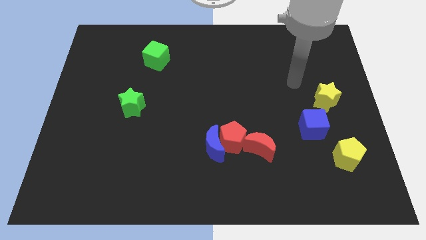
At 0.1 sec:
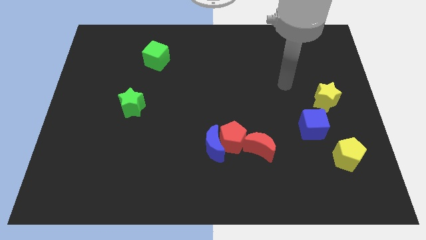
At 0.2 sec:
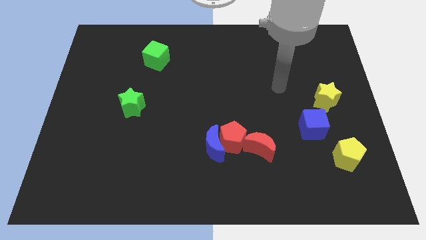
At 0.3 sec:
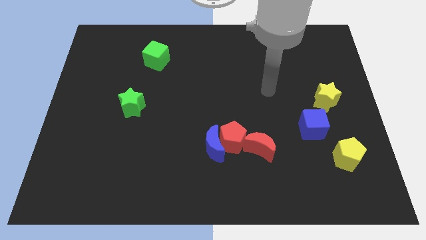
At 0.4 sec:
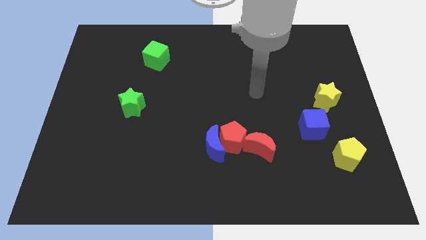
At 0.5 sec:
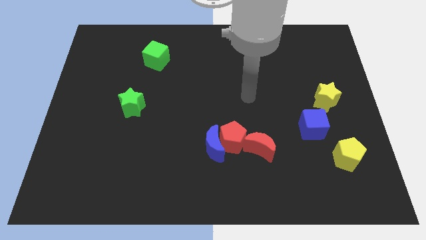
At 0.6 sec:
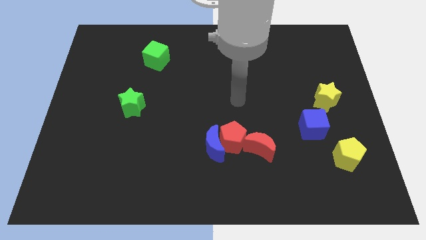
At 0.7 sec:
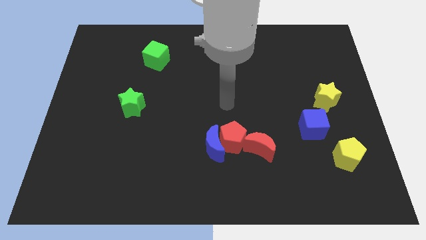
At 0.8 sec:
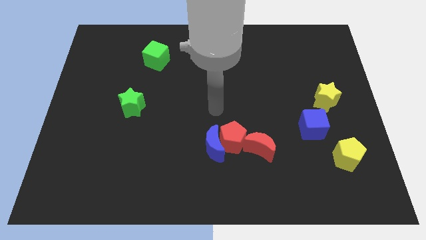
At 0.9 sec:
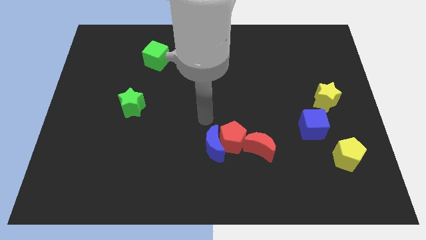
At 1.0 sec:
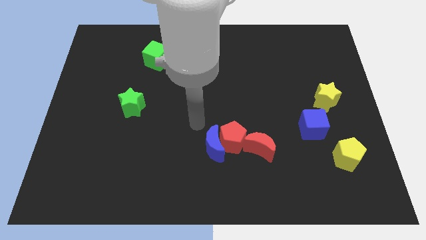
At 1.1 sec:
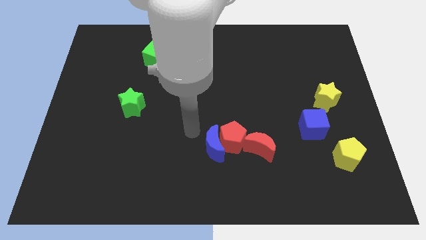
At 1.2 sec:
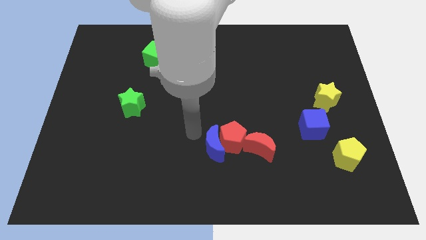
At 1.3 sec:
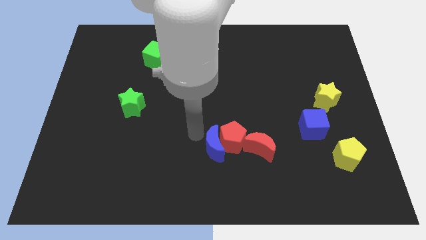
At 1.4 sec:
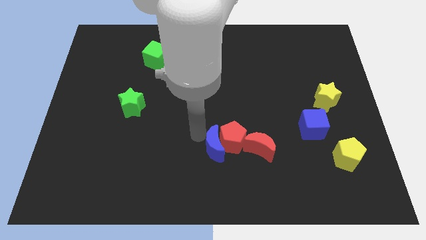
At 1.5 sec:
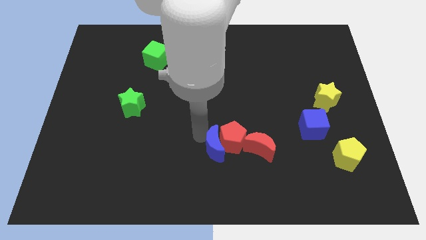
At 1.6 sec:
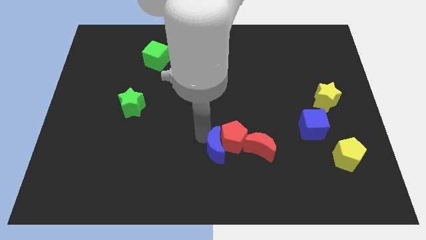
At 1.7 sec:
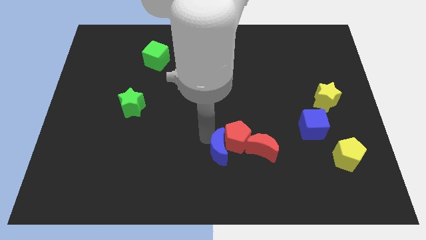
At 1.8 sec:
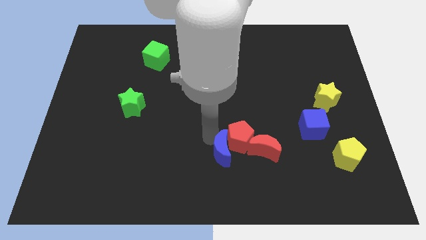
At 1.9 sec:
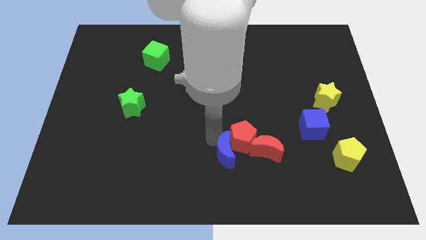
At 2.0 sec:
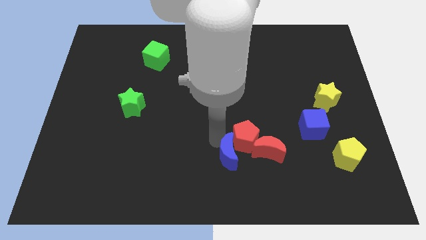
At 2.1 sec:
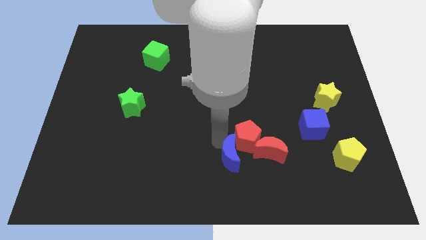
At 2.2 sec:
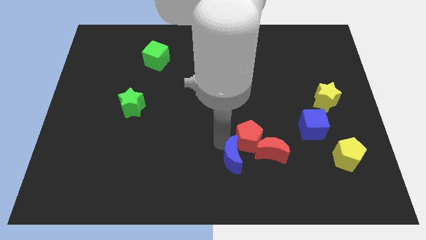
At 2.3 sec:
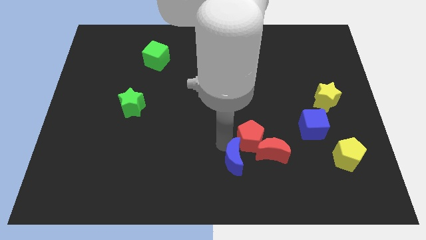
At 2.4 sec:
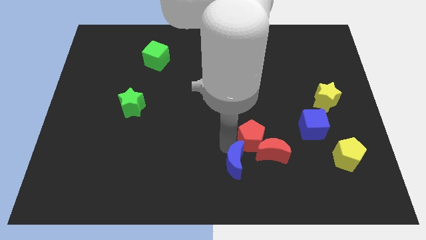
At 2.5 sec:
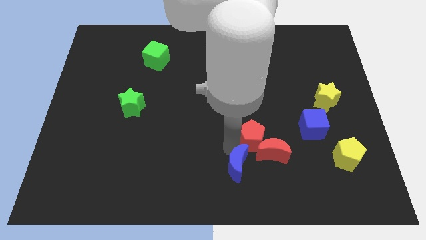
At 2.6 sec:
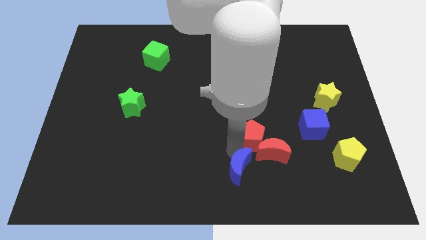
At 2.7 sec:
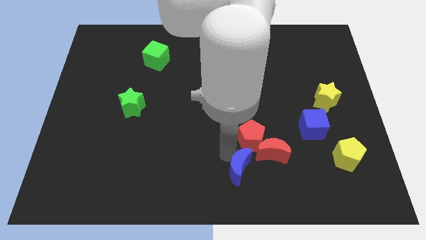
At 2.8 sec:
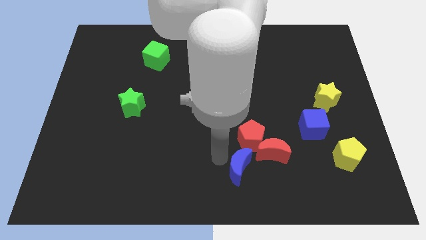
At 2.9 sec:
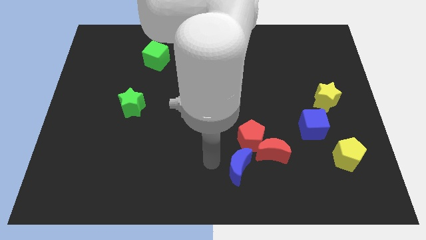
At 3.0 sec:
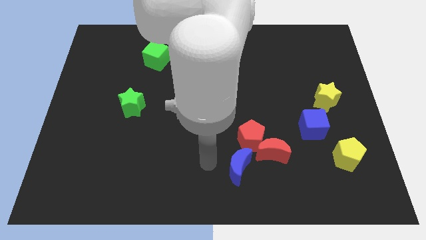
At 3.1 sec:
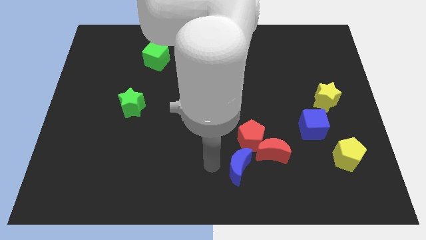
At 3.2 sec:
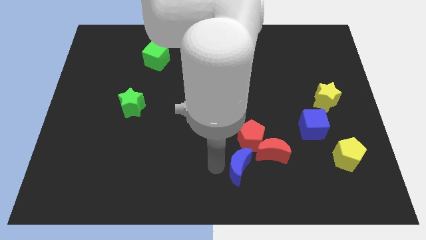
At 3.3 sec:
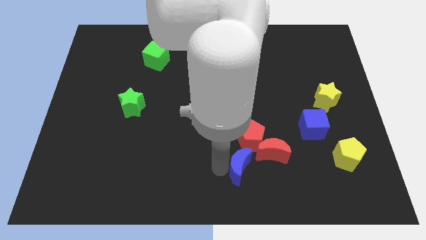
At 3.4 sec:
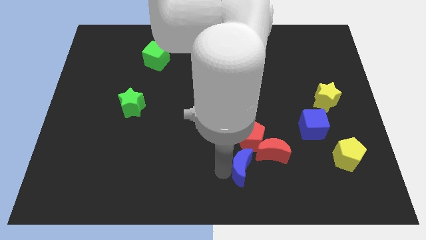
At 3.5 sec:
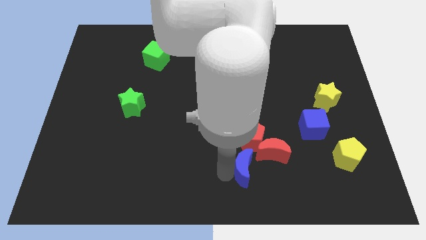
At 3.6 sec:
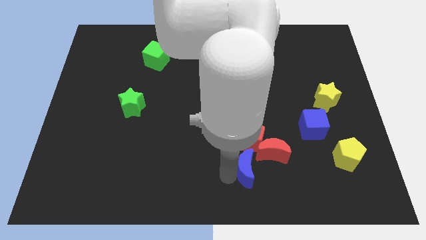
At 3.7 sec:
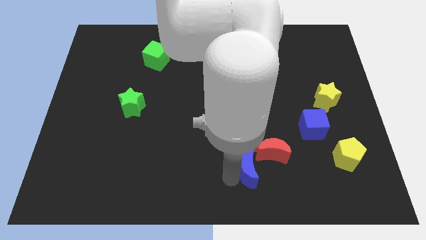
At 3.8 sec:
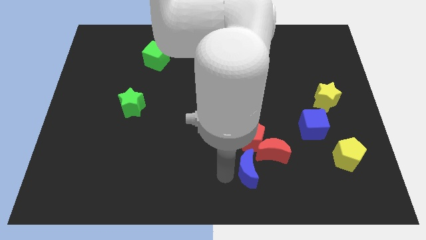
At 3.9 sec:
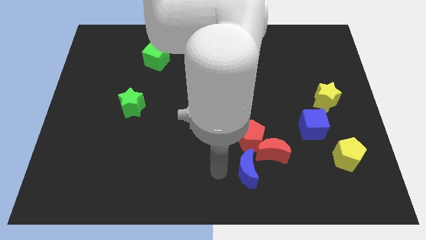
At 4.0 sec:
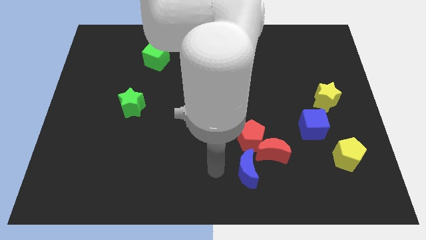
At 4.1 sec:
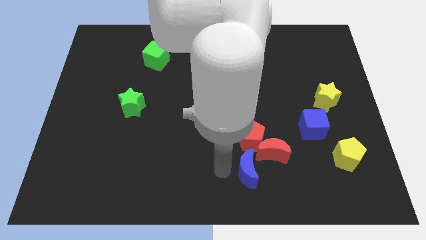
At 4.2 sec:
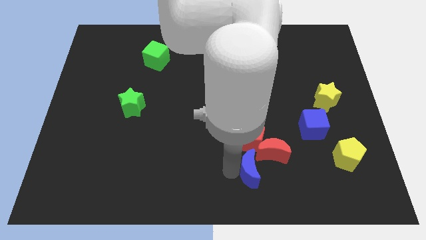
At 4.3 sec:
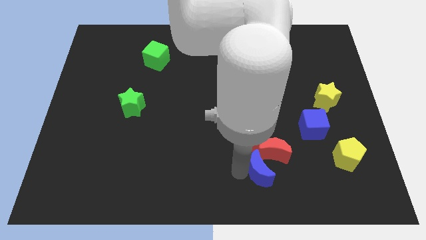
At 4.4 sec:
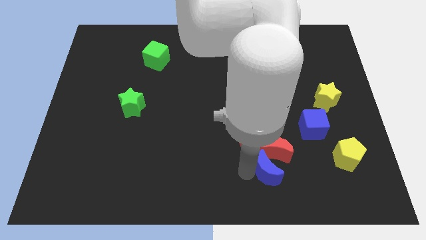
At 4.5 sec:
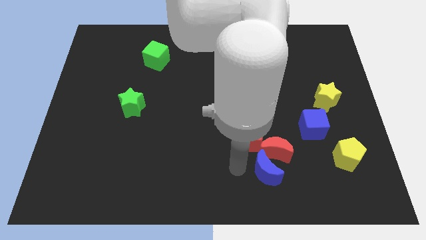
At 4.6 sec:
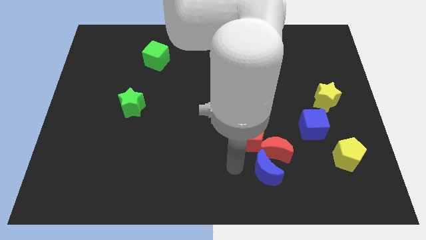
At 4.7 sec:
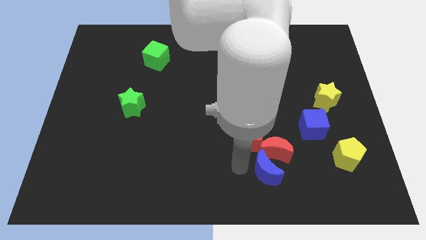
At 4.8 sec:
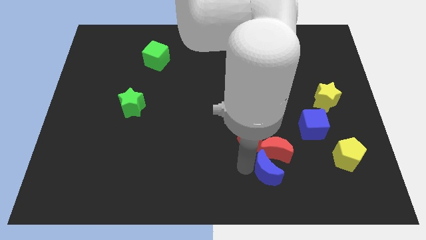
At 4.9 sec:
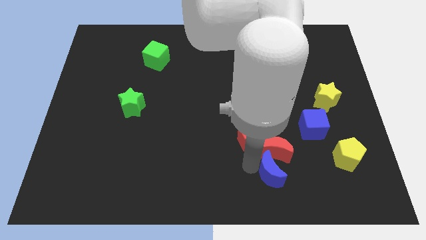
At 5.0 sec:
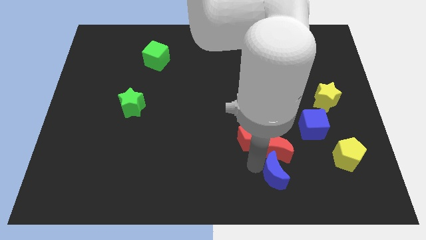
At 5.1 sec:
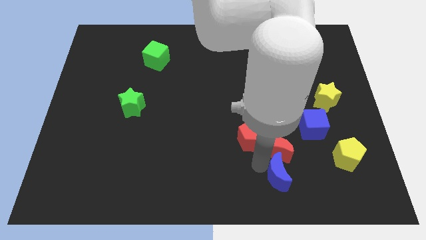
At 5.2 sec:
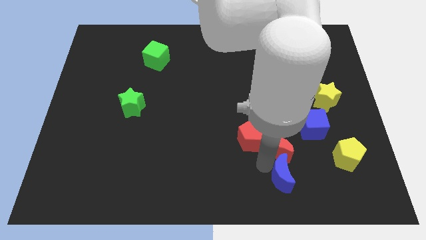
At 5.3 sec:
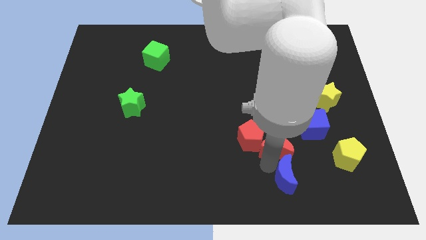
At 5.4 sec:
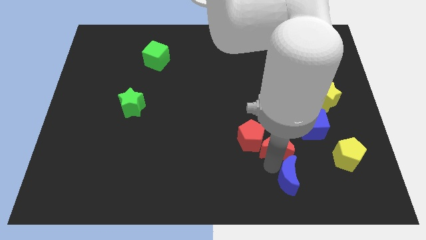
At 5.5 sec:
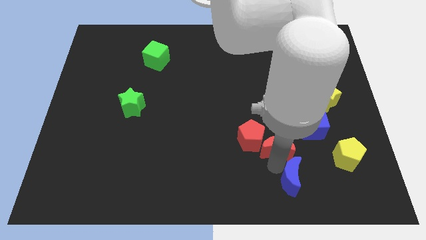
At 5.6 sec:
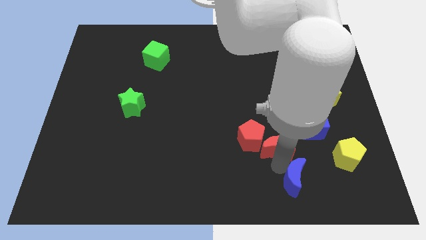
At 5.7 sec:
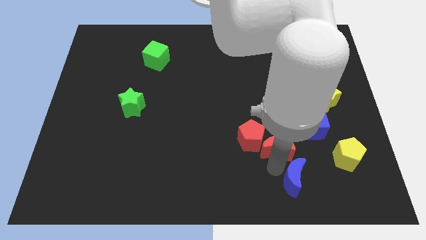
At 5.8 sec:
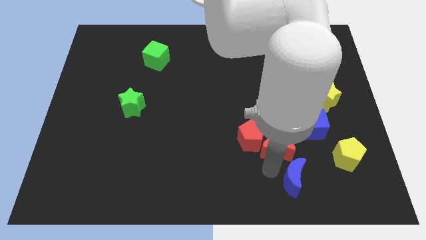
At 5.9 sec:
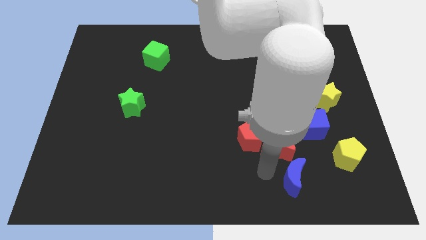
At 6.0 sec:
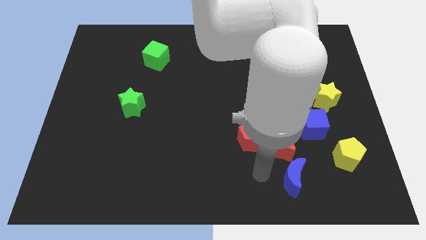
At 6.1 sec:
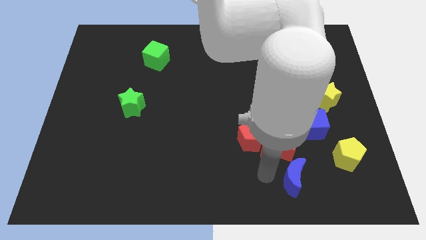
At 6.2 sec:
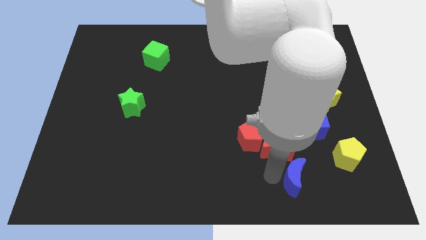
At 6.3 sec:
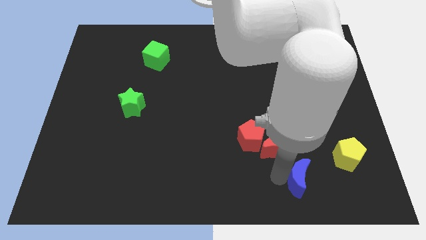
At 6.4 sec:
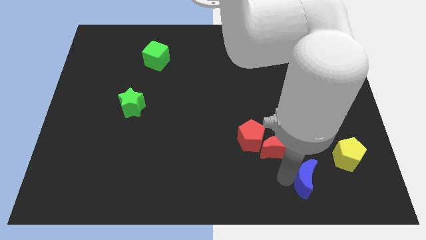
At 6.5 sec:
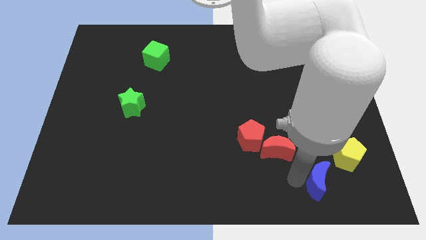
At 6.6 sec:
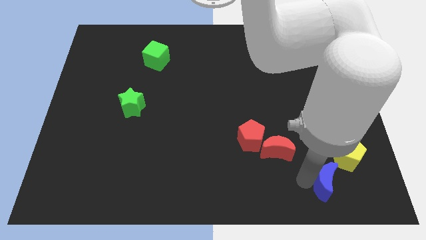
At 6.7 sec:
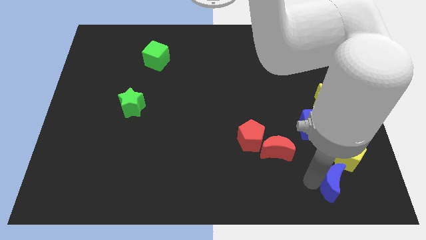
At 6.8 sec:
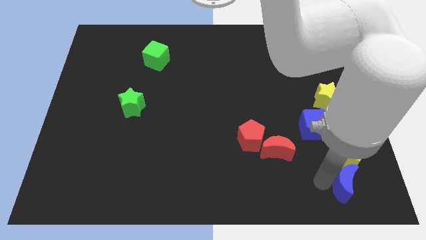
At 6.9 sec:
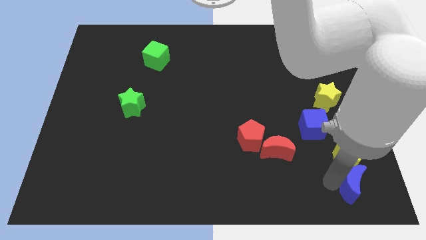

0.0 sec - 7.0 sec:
slide the blue moon to the bottom right corner
